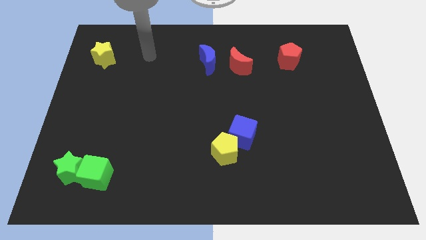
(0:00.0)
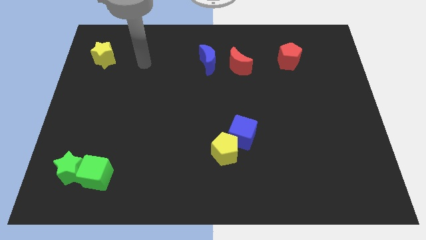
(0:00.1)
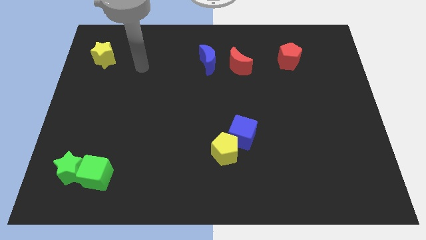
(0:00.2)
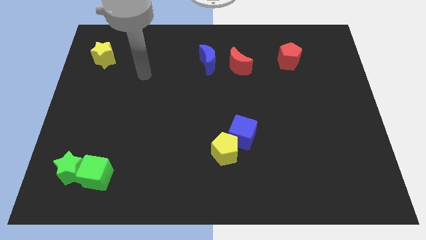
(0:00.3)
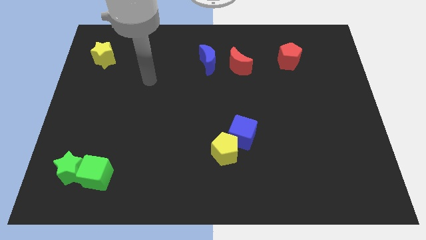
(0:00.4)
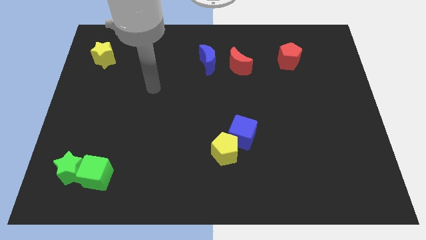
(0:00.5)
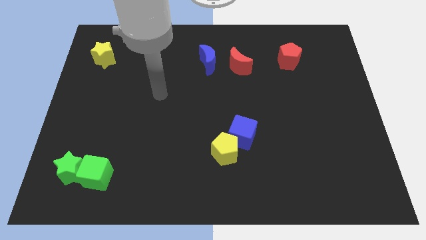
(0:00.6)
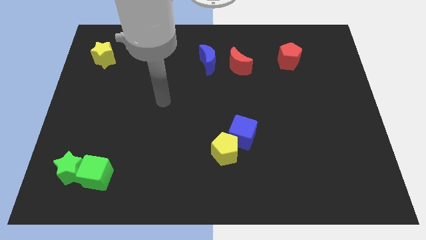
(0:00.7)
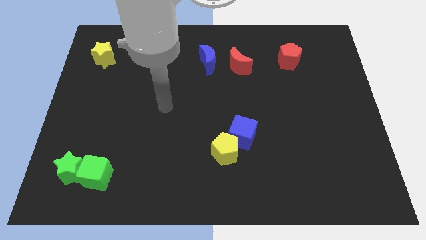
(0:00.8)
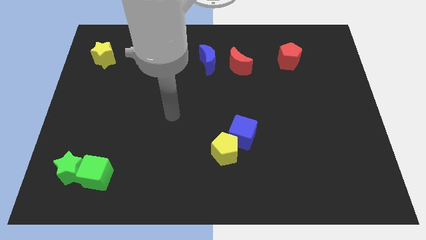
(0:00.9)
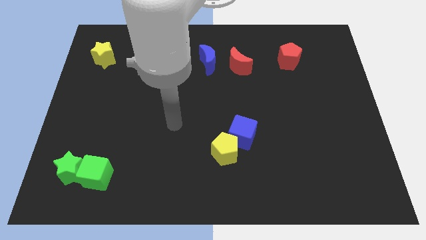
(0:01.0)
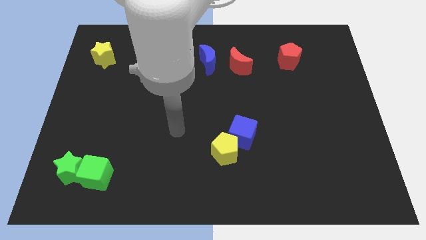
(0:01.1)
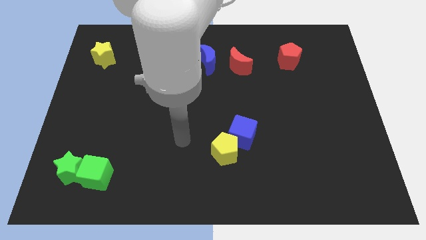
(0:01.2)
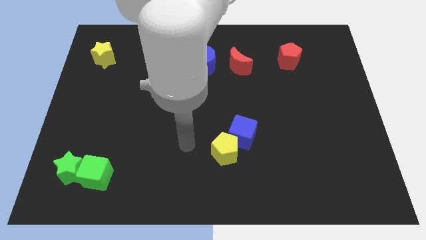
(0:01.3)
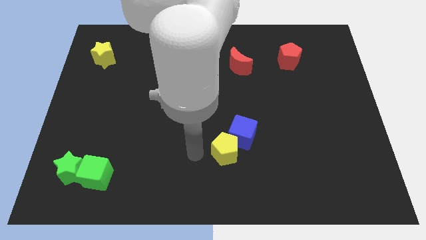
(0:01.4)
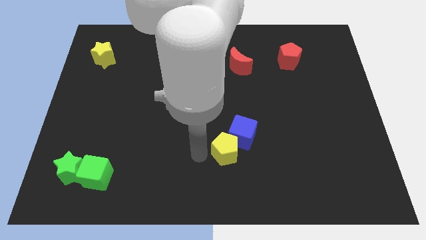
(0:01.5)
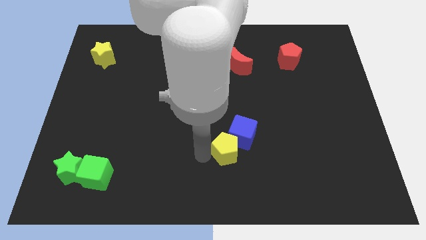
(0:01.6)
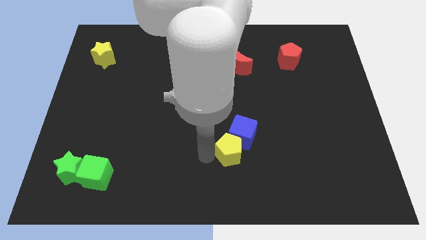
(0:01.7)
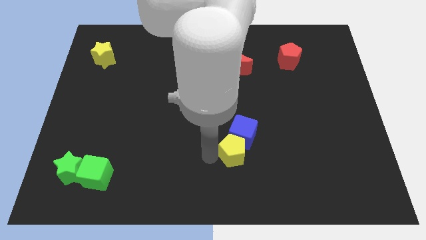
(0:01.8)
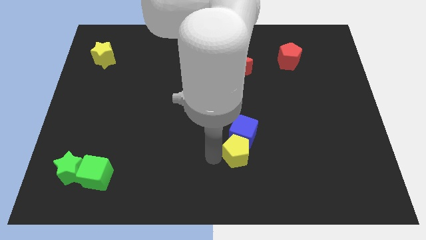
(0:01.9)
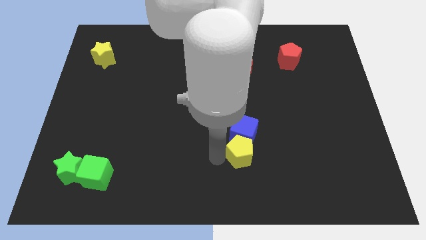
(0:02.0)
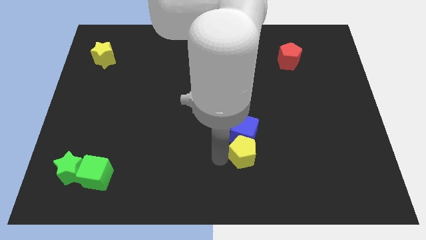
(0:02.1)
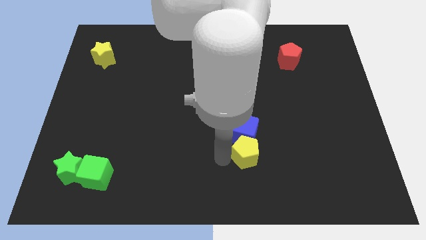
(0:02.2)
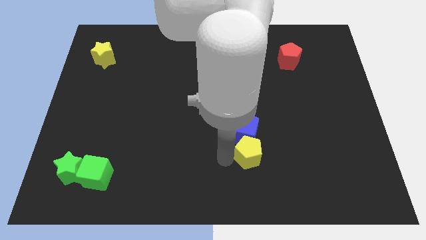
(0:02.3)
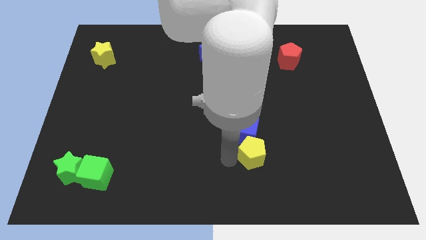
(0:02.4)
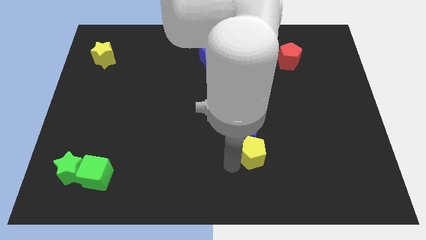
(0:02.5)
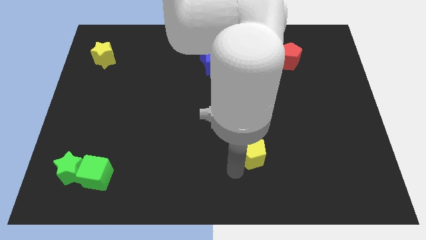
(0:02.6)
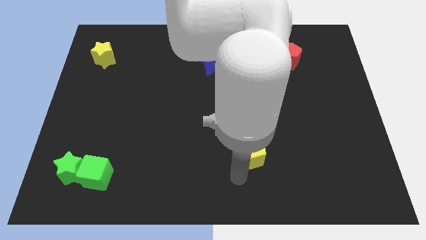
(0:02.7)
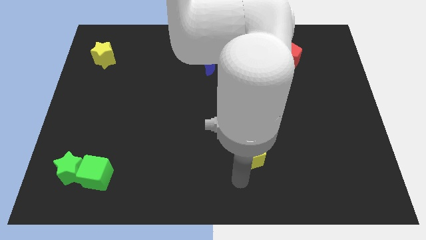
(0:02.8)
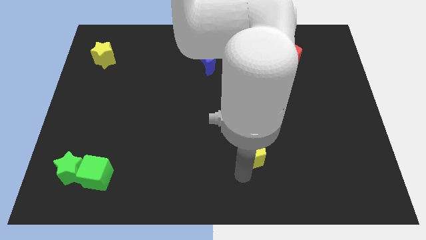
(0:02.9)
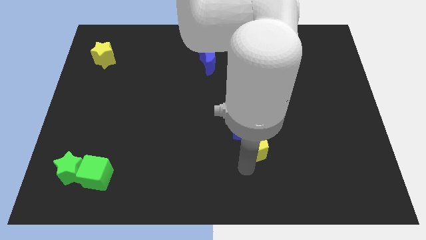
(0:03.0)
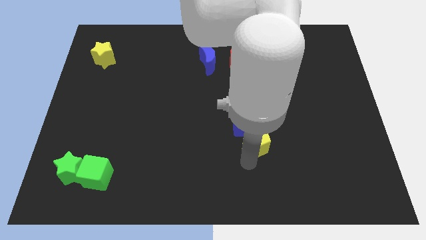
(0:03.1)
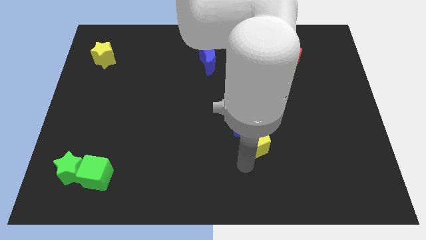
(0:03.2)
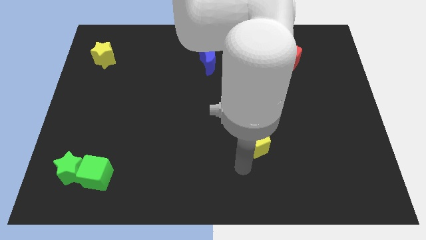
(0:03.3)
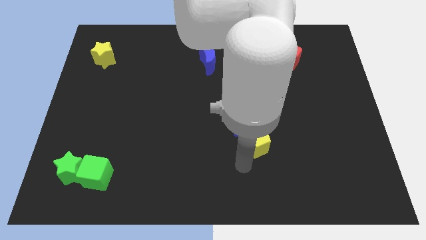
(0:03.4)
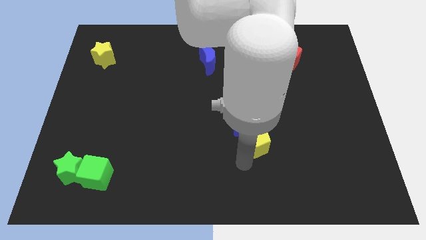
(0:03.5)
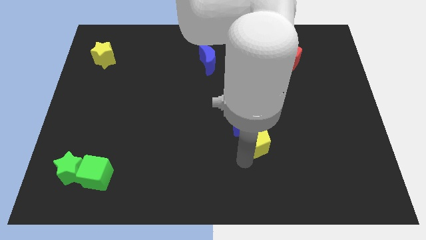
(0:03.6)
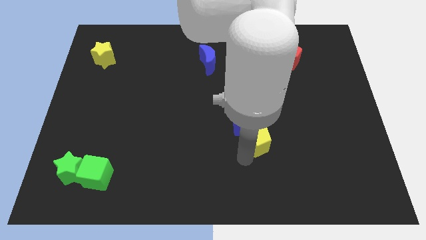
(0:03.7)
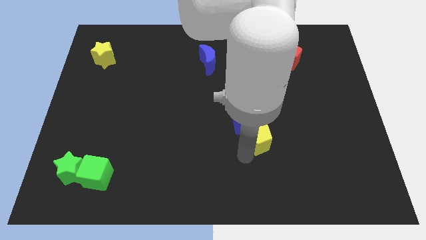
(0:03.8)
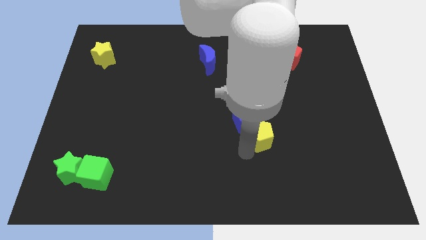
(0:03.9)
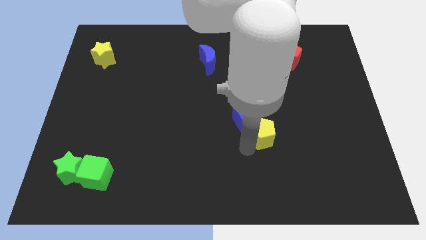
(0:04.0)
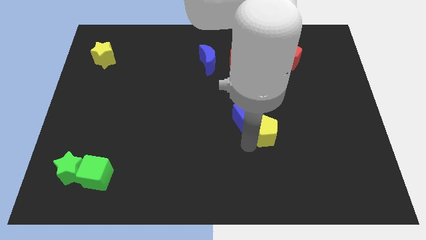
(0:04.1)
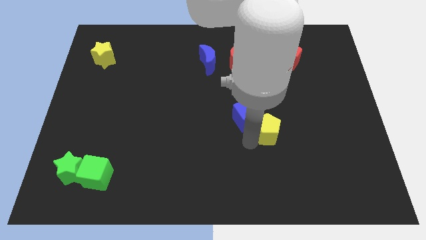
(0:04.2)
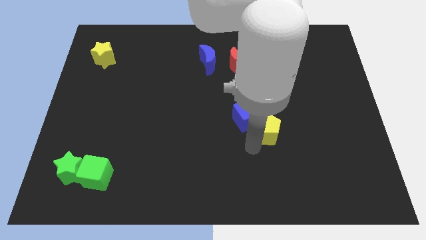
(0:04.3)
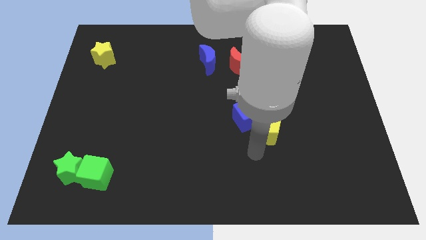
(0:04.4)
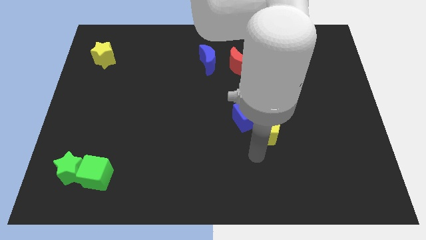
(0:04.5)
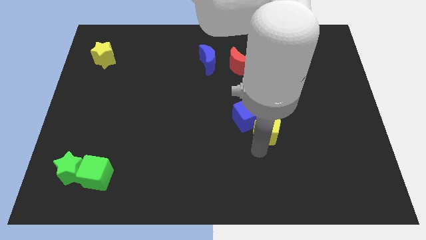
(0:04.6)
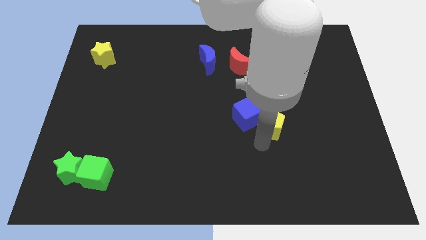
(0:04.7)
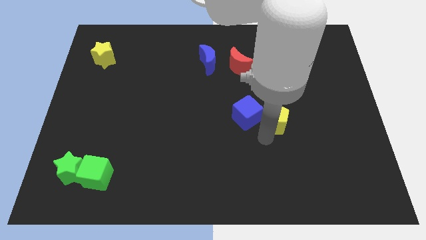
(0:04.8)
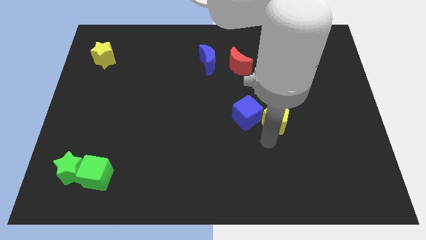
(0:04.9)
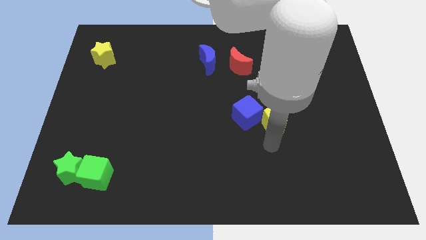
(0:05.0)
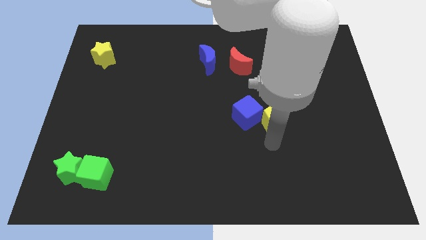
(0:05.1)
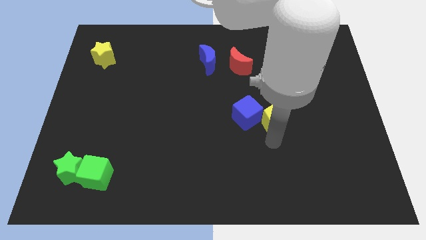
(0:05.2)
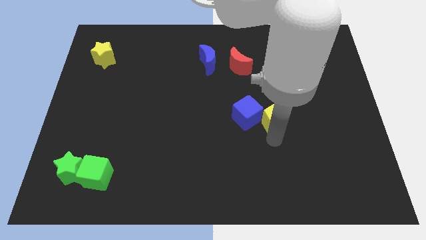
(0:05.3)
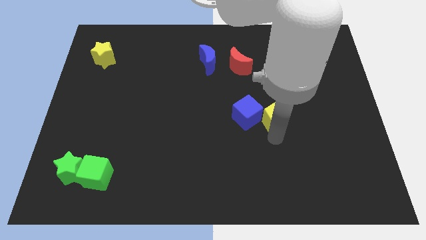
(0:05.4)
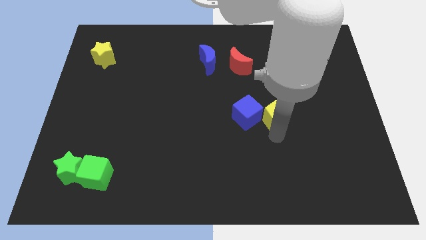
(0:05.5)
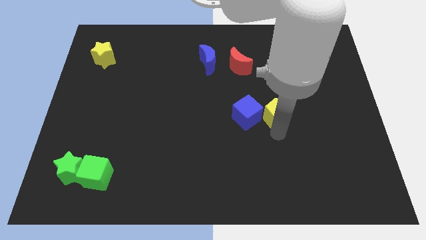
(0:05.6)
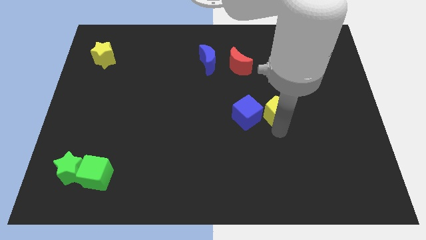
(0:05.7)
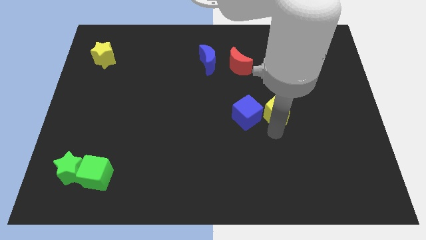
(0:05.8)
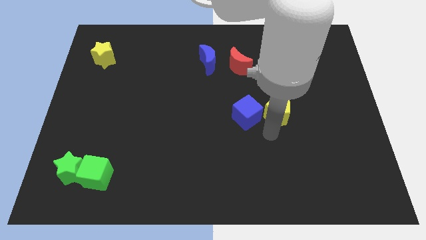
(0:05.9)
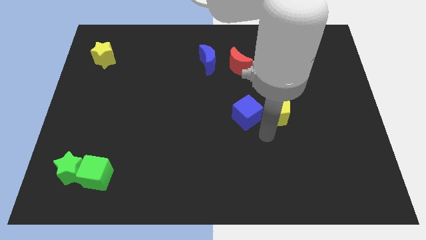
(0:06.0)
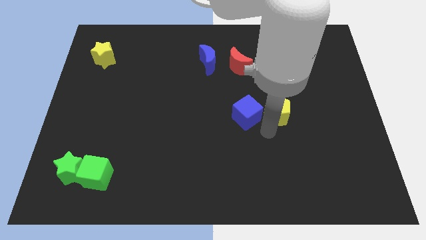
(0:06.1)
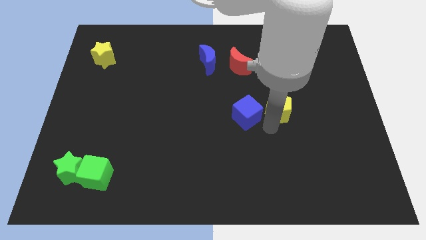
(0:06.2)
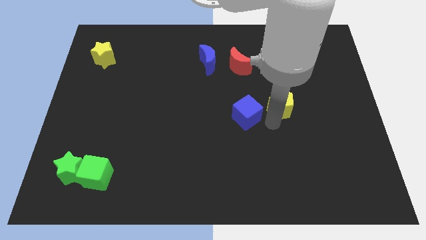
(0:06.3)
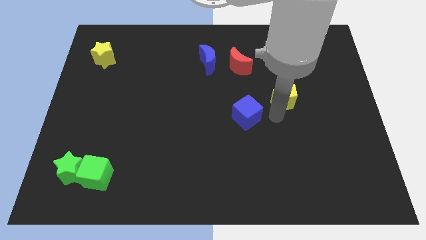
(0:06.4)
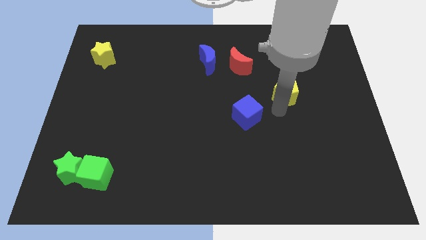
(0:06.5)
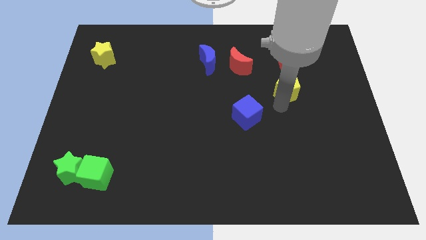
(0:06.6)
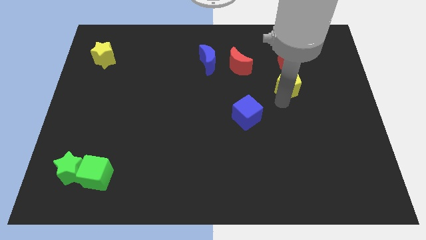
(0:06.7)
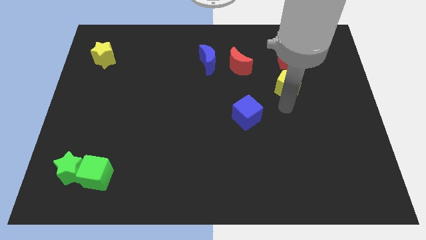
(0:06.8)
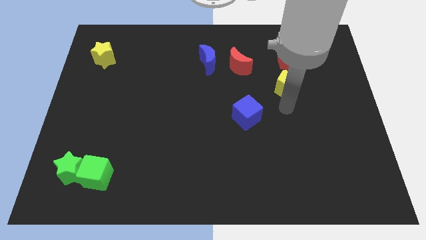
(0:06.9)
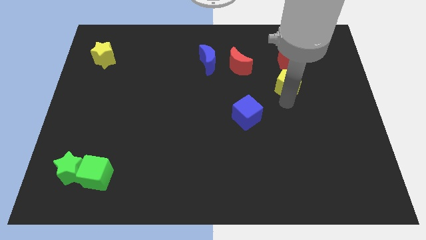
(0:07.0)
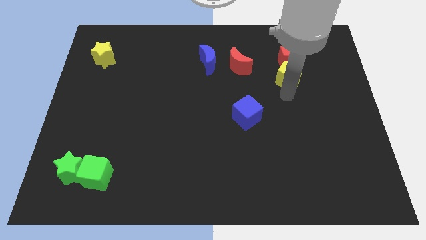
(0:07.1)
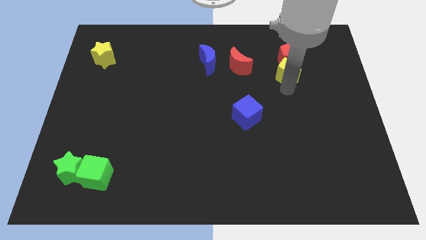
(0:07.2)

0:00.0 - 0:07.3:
move the yellow pentagon next to the red pentagon

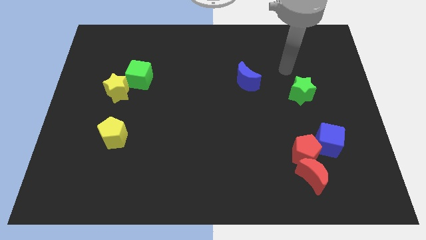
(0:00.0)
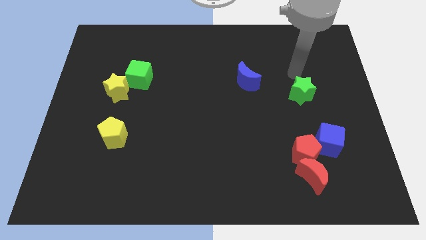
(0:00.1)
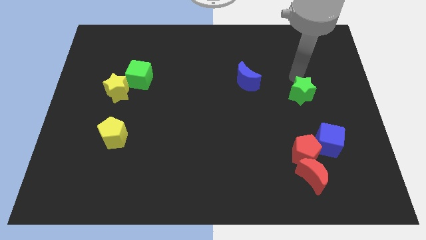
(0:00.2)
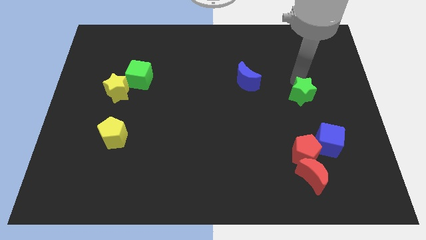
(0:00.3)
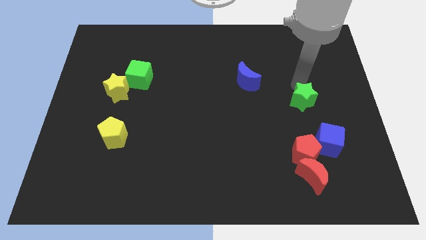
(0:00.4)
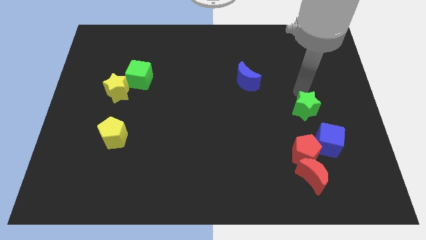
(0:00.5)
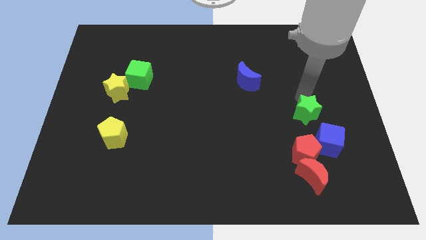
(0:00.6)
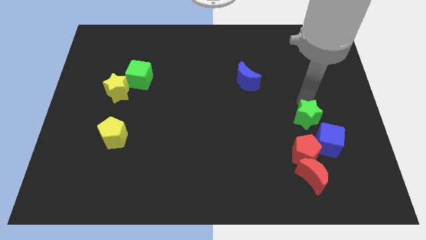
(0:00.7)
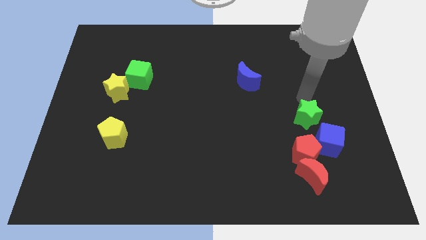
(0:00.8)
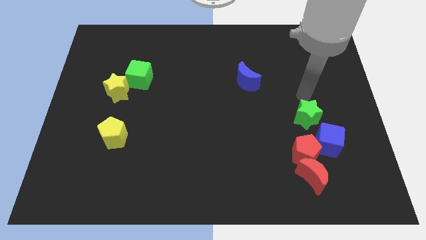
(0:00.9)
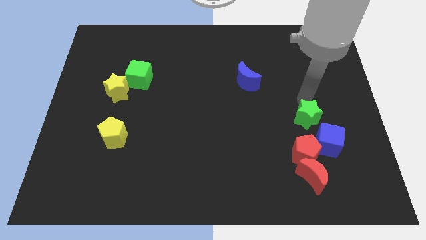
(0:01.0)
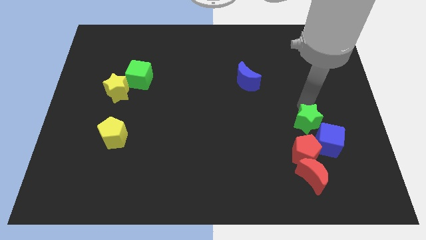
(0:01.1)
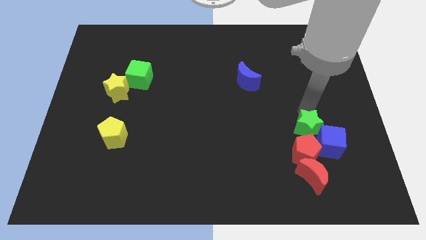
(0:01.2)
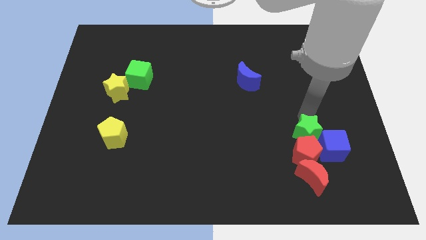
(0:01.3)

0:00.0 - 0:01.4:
move the green star to the red pentagon
